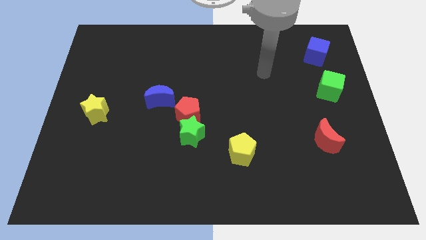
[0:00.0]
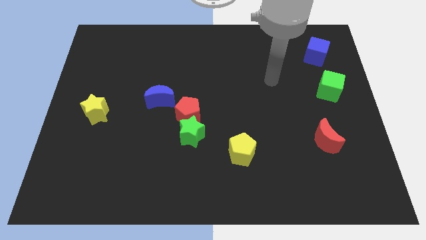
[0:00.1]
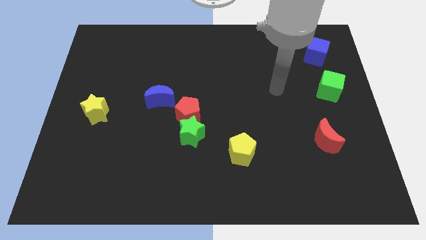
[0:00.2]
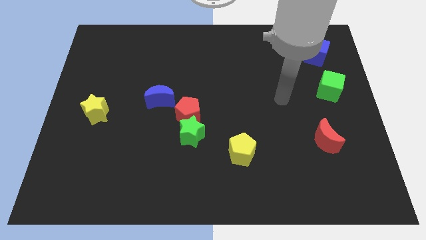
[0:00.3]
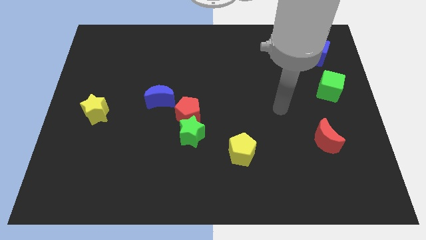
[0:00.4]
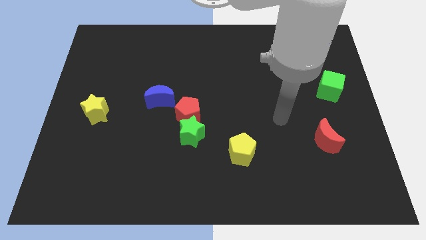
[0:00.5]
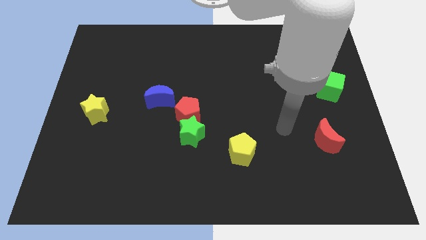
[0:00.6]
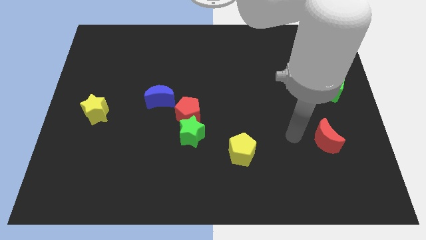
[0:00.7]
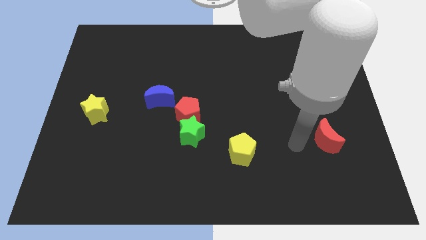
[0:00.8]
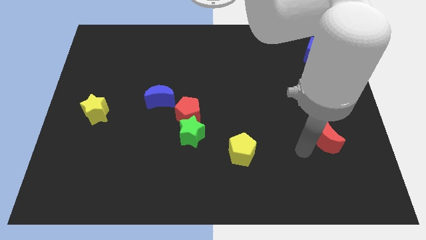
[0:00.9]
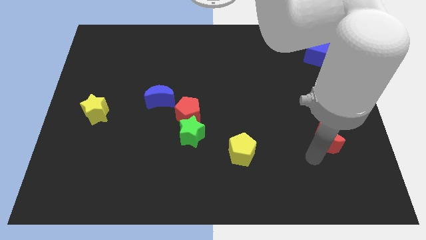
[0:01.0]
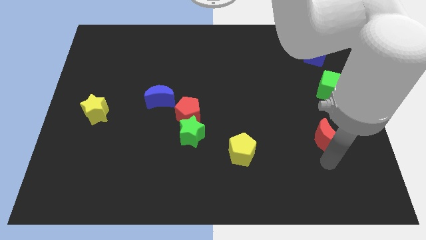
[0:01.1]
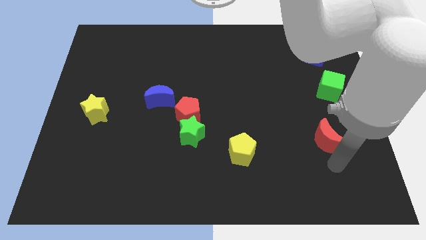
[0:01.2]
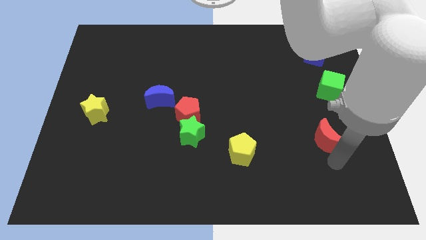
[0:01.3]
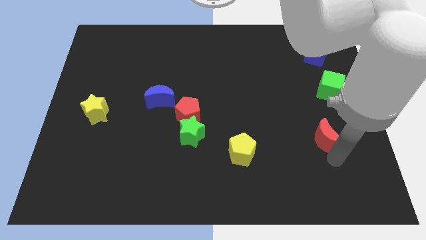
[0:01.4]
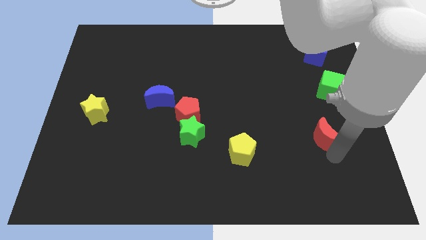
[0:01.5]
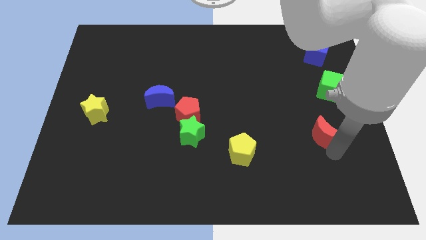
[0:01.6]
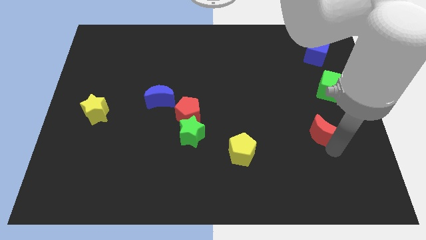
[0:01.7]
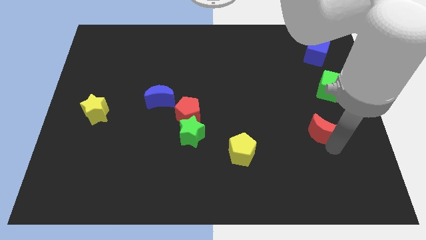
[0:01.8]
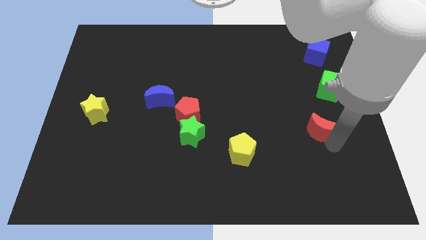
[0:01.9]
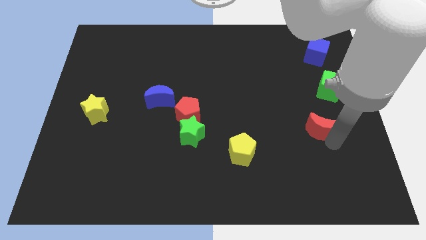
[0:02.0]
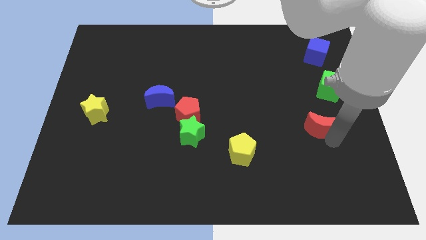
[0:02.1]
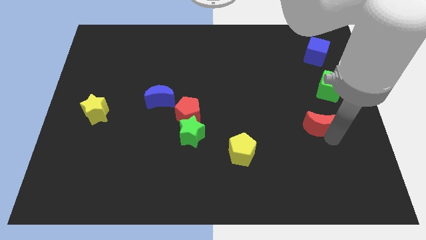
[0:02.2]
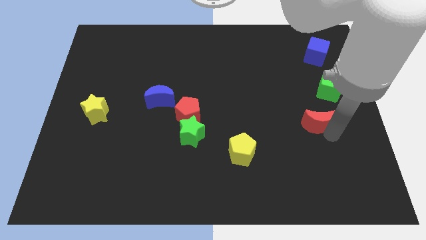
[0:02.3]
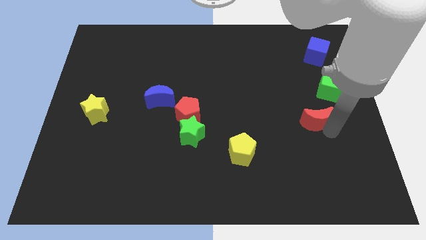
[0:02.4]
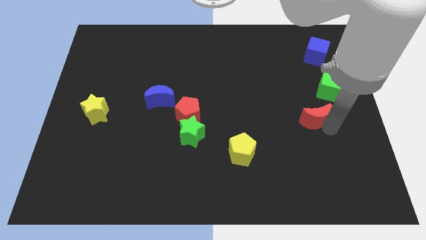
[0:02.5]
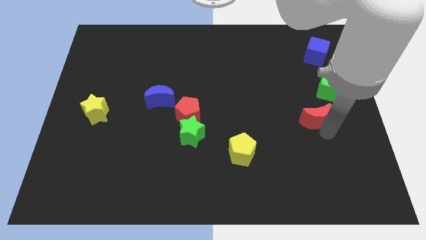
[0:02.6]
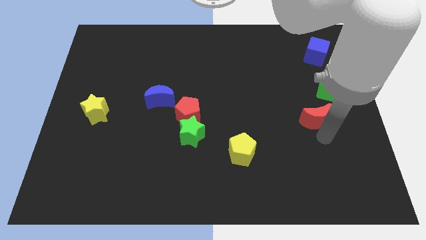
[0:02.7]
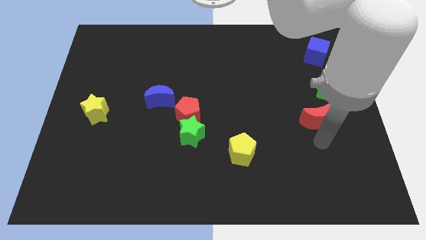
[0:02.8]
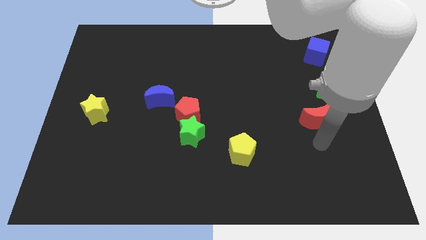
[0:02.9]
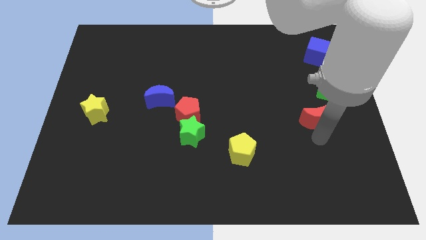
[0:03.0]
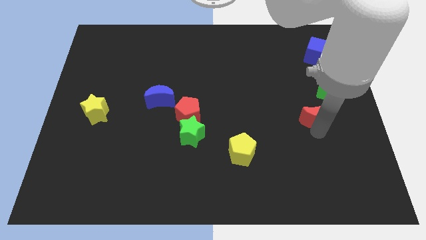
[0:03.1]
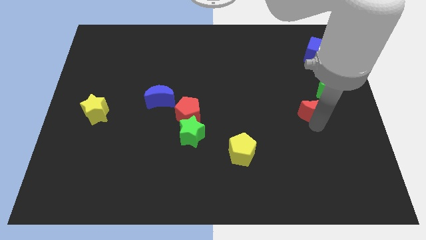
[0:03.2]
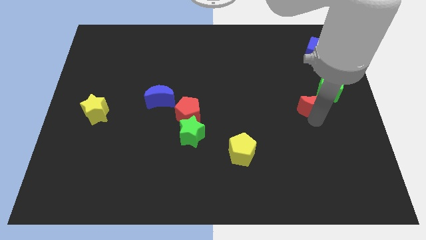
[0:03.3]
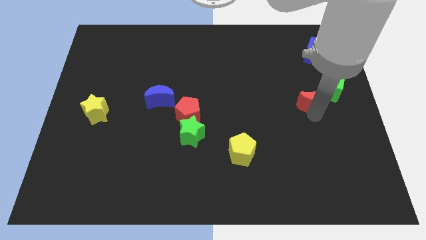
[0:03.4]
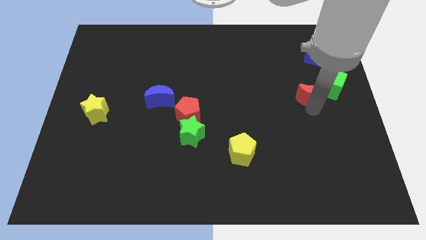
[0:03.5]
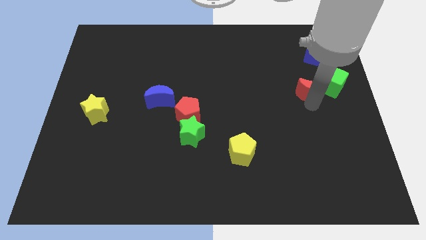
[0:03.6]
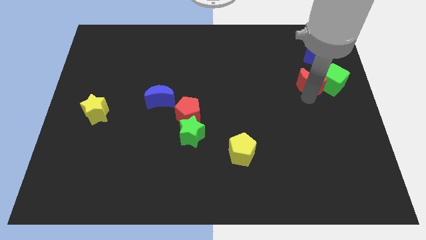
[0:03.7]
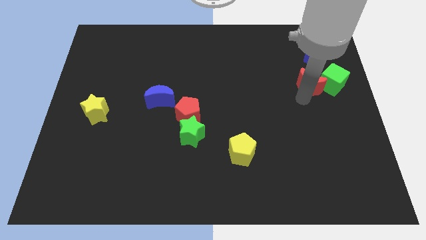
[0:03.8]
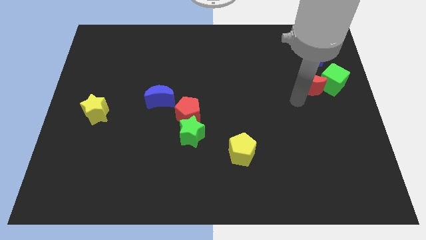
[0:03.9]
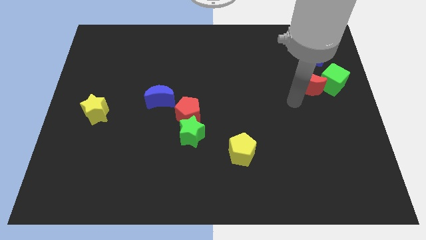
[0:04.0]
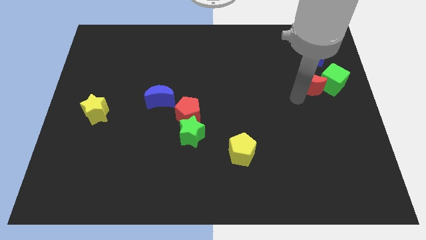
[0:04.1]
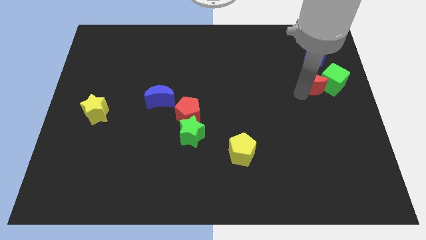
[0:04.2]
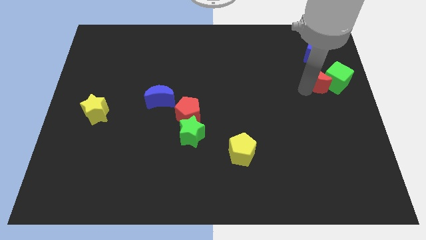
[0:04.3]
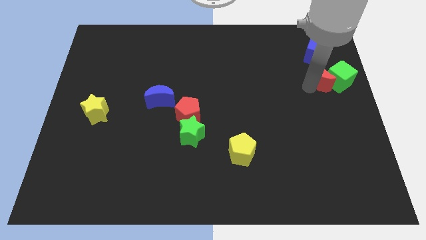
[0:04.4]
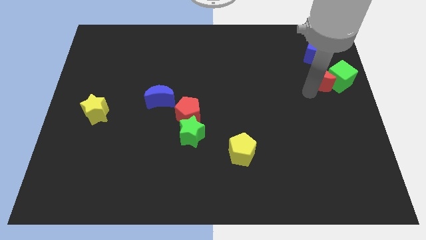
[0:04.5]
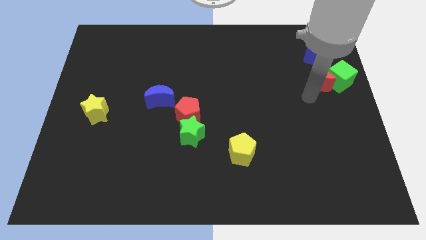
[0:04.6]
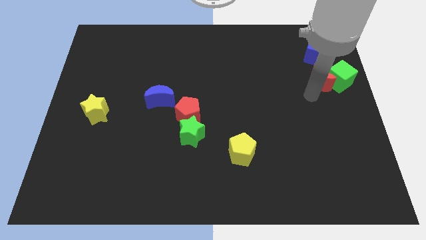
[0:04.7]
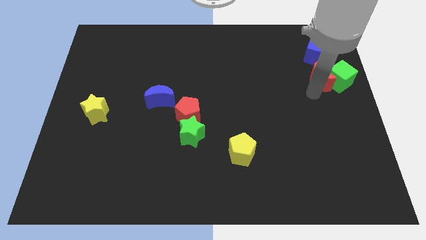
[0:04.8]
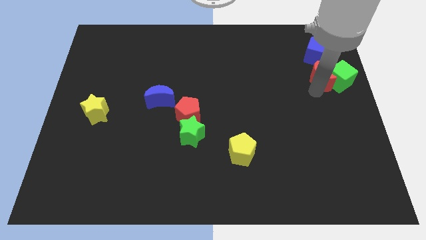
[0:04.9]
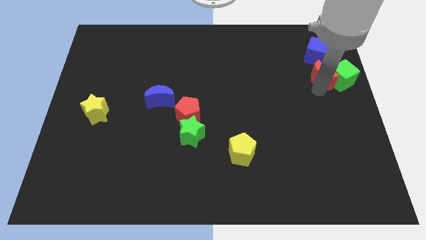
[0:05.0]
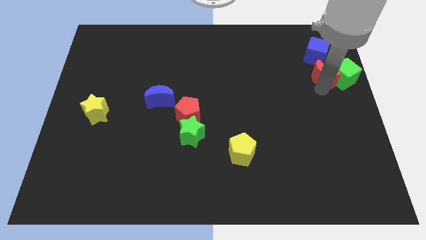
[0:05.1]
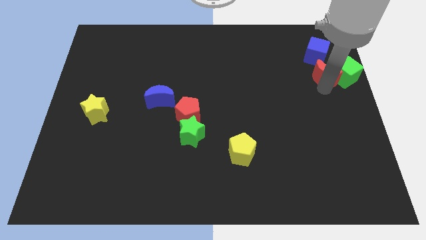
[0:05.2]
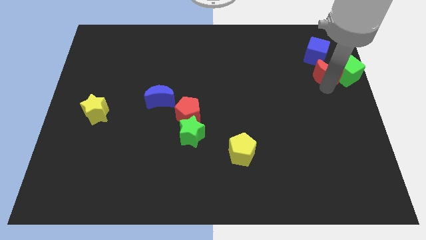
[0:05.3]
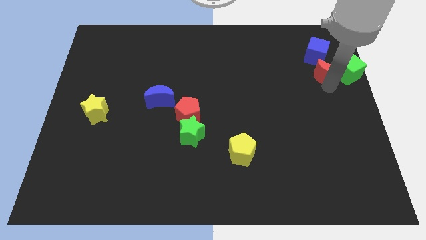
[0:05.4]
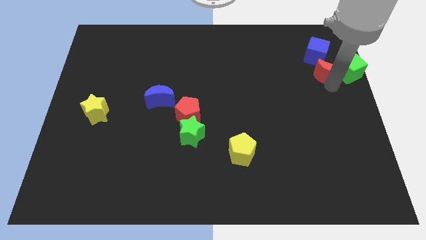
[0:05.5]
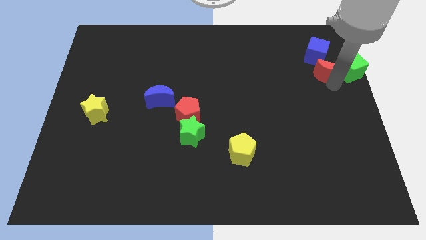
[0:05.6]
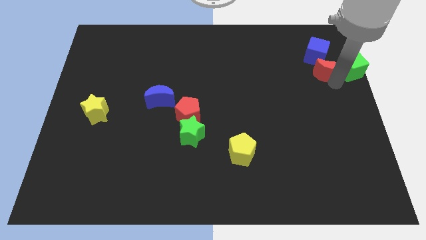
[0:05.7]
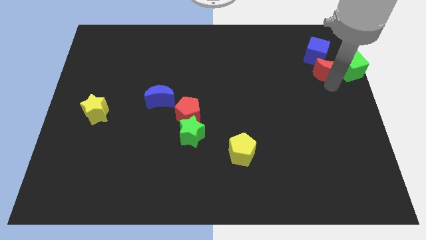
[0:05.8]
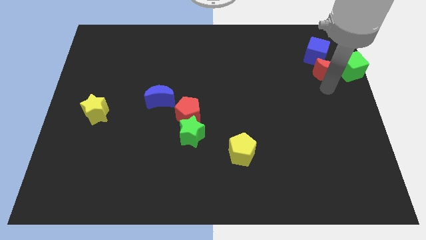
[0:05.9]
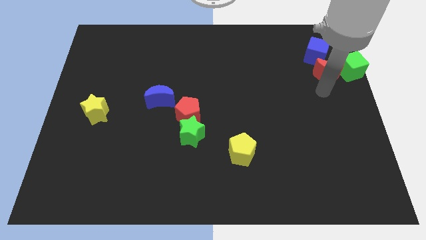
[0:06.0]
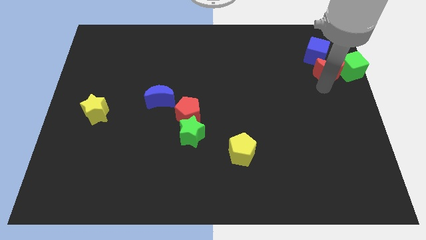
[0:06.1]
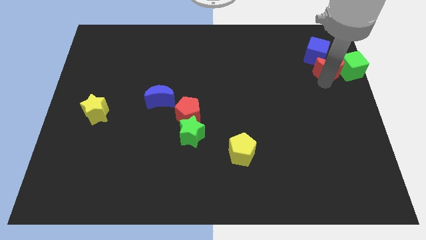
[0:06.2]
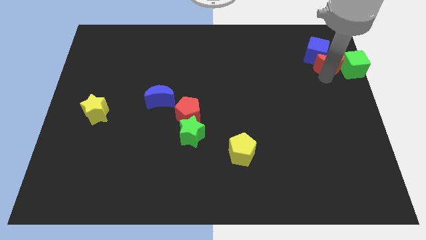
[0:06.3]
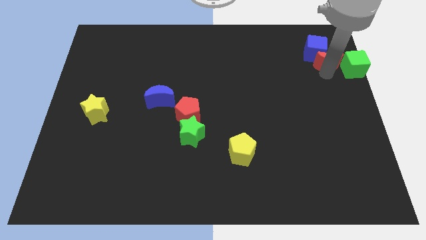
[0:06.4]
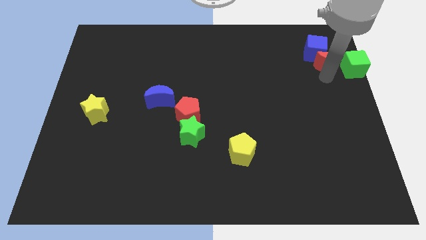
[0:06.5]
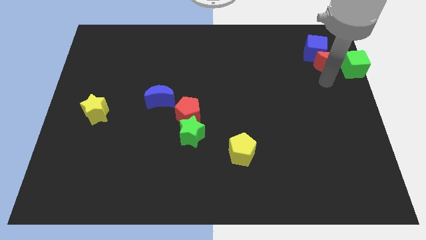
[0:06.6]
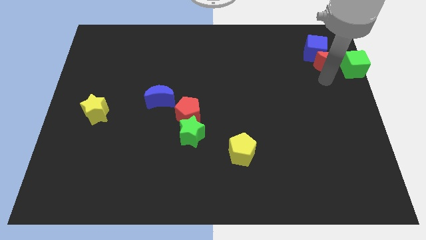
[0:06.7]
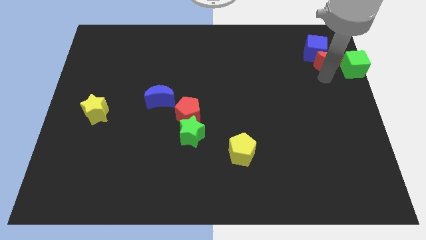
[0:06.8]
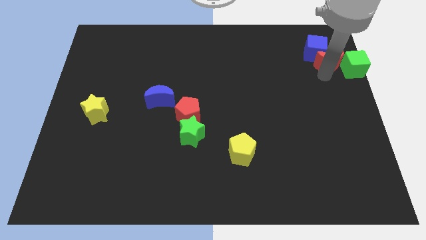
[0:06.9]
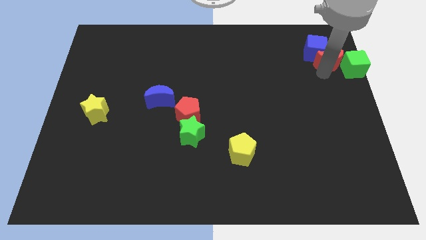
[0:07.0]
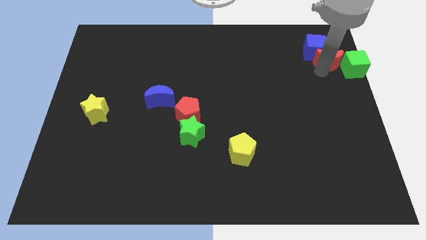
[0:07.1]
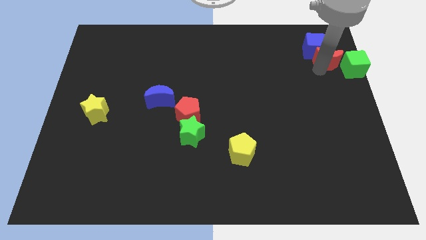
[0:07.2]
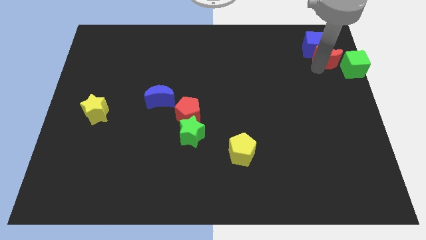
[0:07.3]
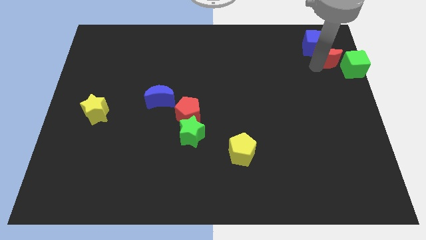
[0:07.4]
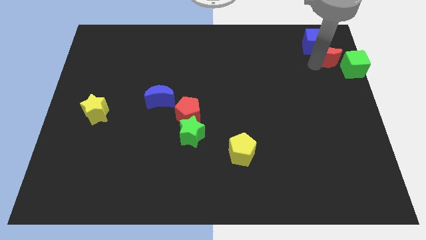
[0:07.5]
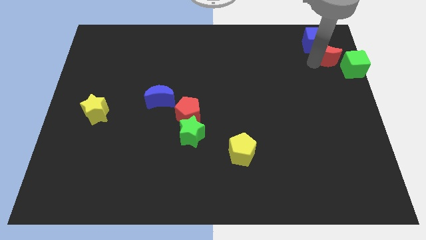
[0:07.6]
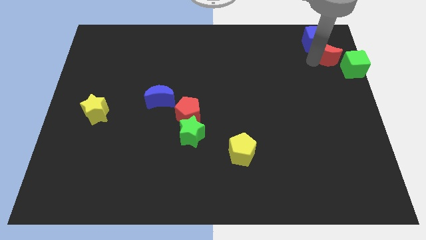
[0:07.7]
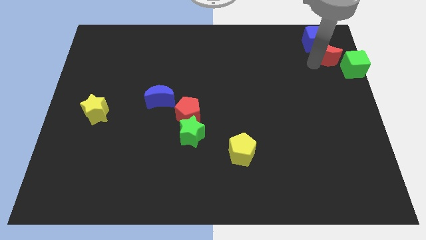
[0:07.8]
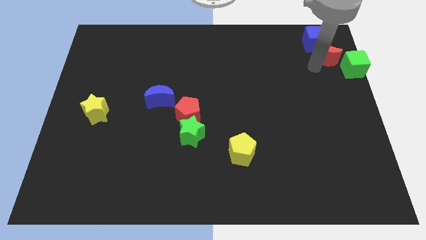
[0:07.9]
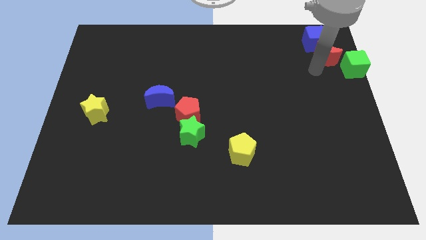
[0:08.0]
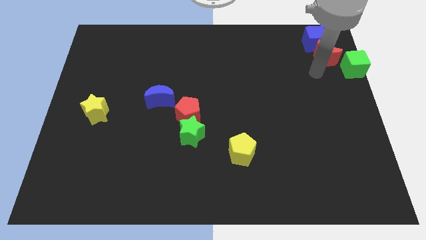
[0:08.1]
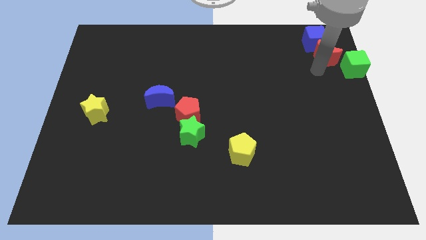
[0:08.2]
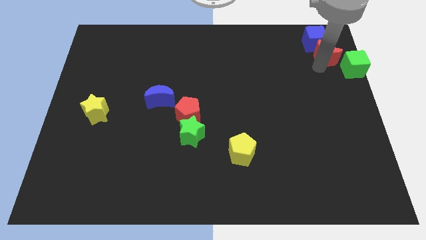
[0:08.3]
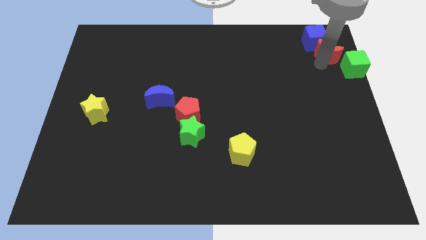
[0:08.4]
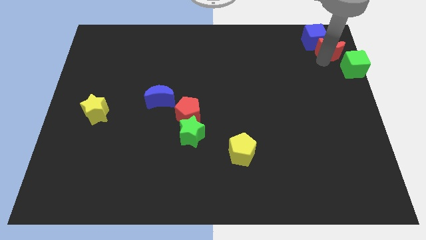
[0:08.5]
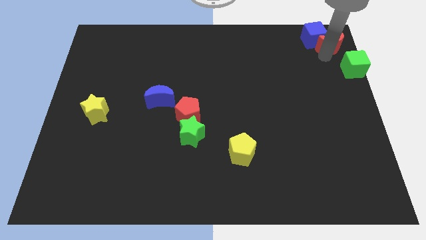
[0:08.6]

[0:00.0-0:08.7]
slide the red moon to the upper right corner
